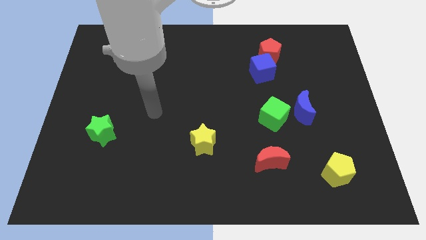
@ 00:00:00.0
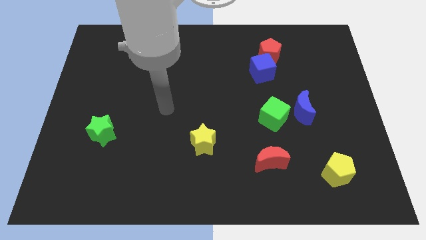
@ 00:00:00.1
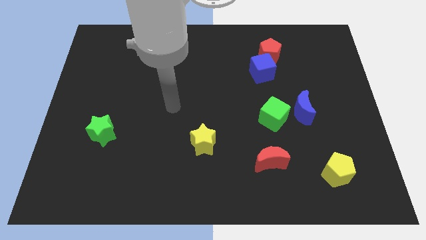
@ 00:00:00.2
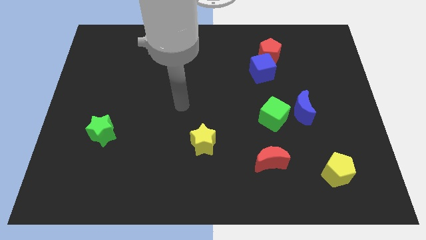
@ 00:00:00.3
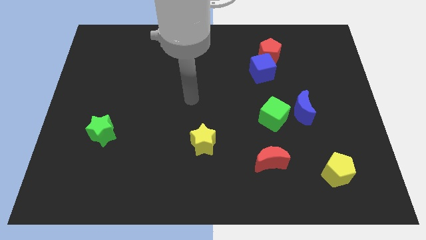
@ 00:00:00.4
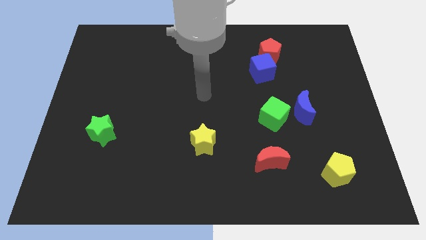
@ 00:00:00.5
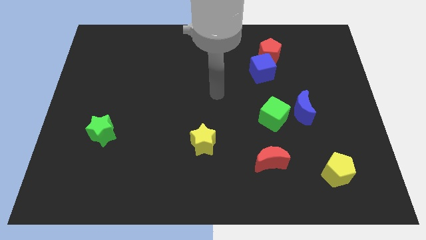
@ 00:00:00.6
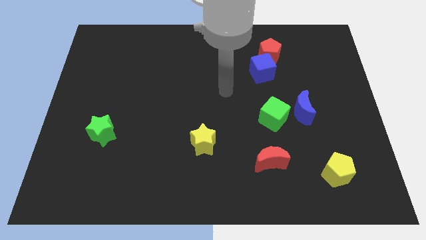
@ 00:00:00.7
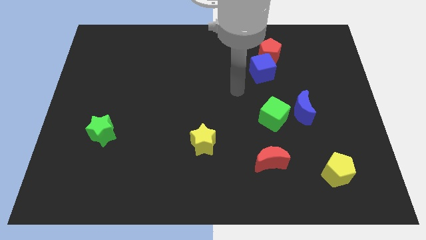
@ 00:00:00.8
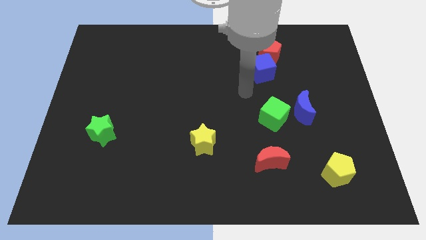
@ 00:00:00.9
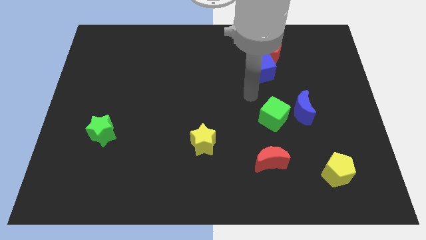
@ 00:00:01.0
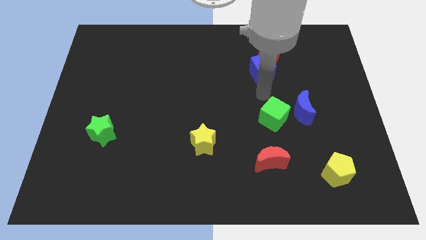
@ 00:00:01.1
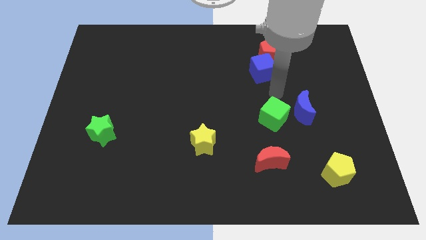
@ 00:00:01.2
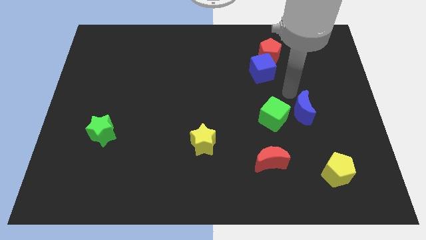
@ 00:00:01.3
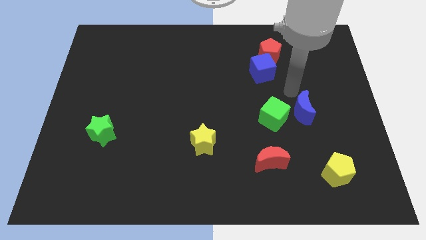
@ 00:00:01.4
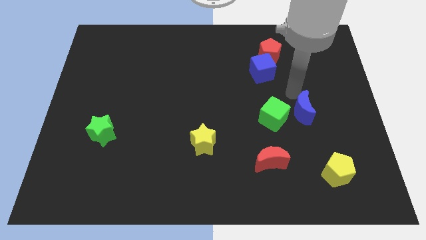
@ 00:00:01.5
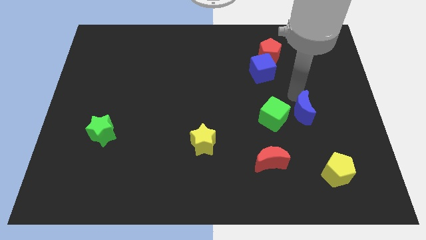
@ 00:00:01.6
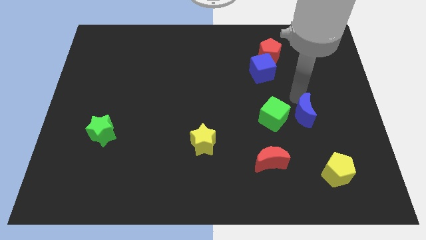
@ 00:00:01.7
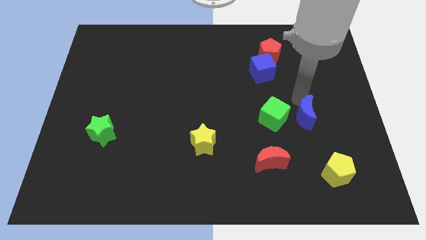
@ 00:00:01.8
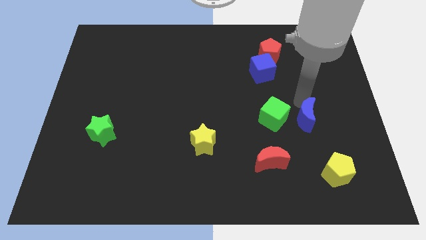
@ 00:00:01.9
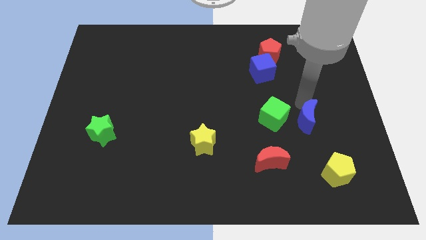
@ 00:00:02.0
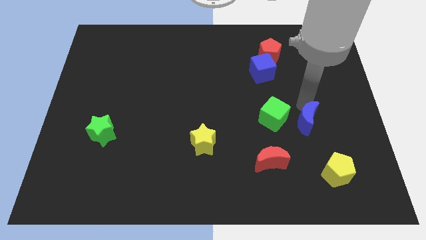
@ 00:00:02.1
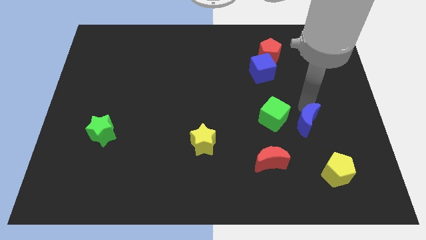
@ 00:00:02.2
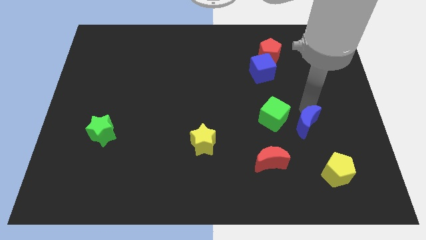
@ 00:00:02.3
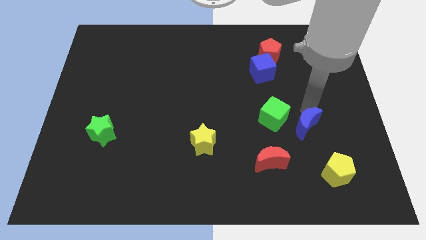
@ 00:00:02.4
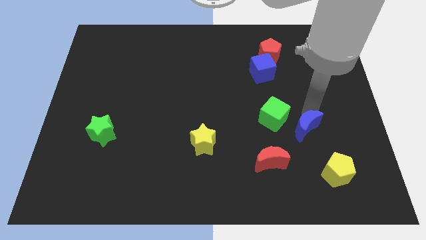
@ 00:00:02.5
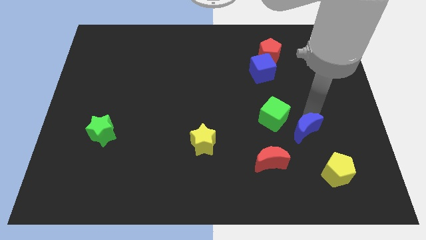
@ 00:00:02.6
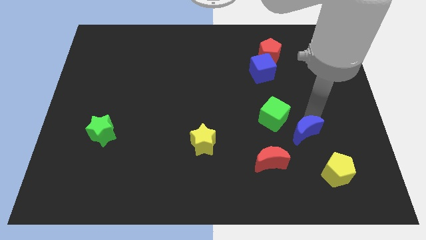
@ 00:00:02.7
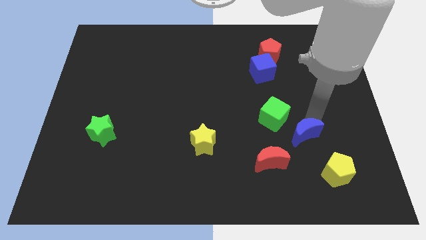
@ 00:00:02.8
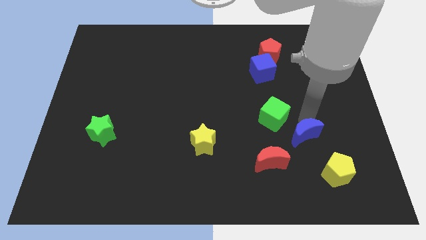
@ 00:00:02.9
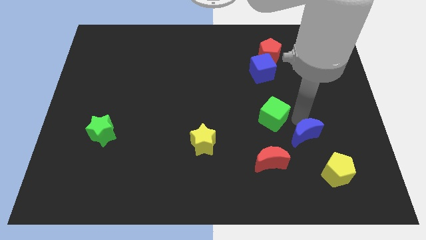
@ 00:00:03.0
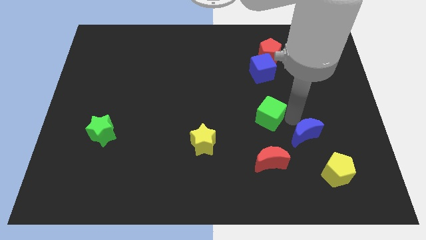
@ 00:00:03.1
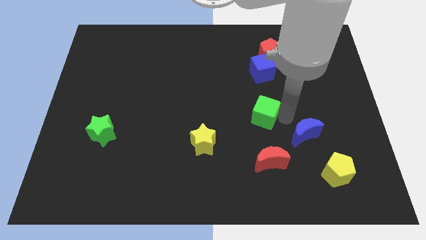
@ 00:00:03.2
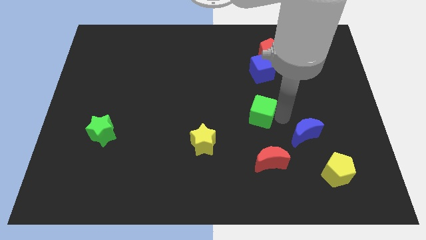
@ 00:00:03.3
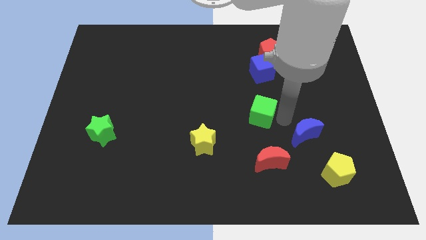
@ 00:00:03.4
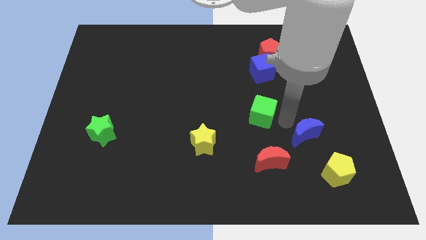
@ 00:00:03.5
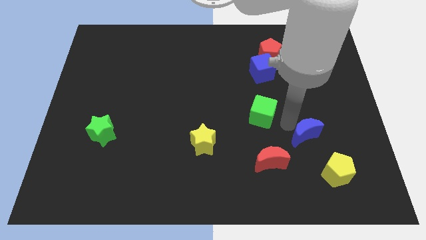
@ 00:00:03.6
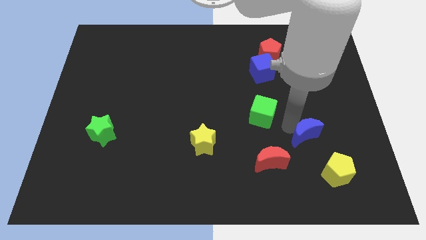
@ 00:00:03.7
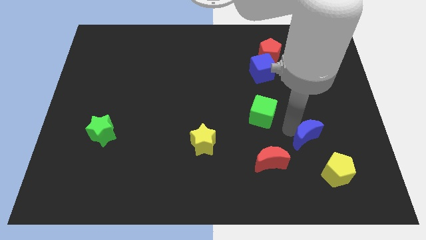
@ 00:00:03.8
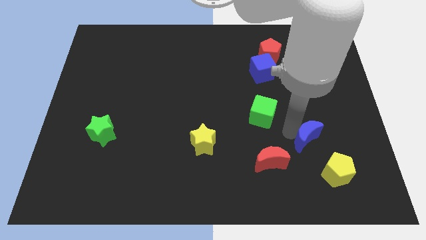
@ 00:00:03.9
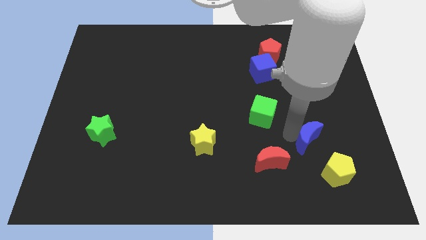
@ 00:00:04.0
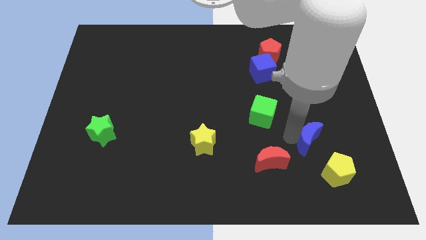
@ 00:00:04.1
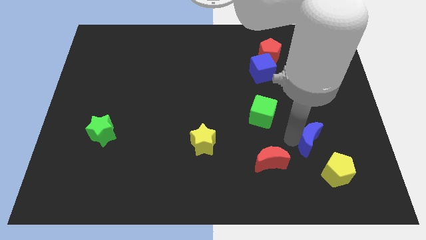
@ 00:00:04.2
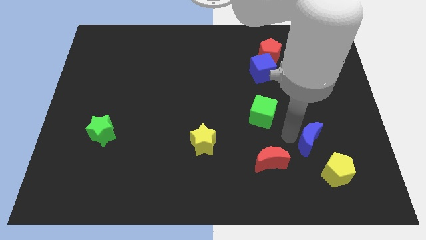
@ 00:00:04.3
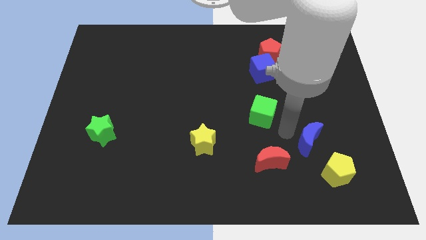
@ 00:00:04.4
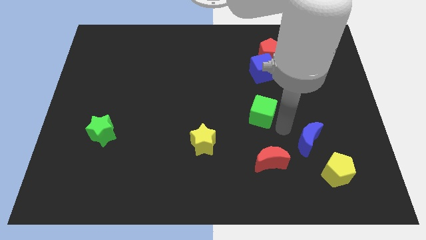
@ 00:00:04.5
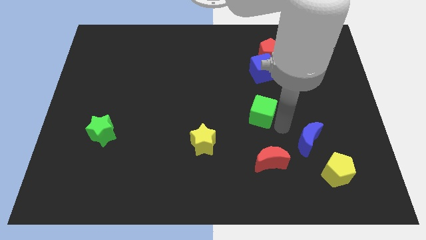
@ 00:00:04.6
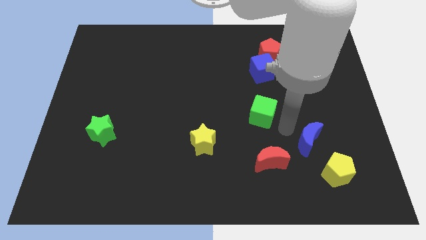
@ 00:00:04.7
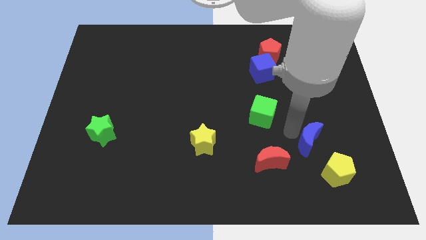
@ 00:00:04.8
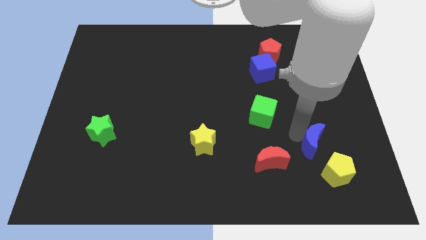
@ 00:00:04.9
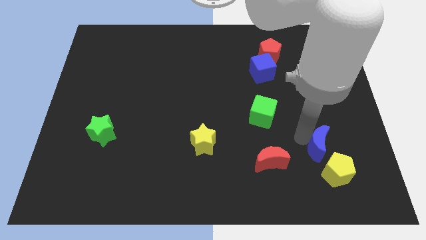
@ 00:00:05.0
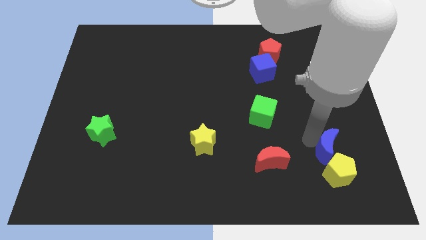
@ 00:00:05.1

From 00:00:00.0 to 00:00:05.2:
push the blue moon close to the yellow pentagon

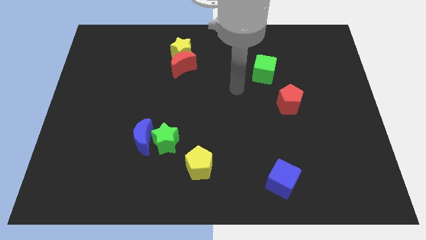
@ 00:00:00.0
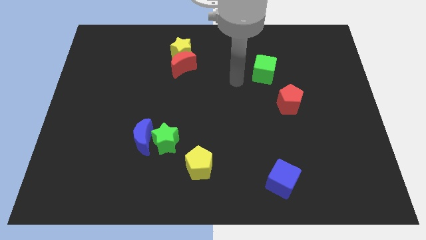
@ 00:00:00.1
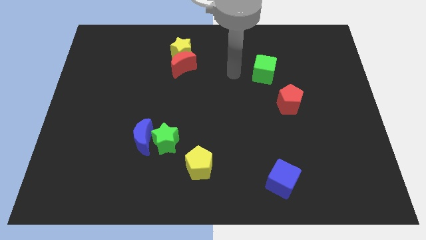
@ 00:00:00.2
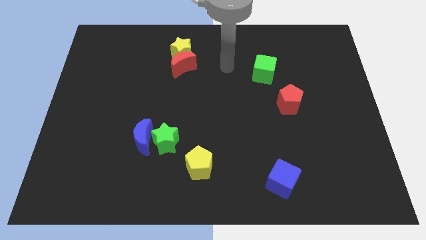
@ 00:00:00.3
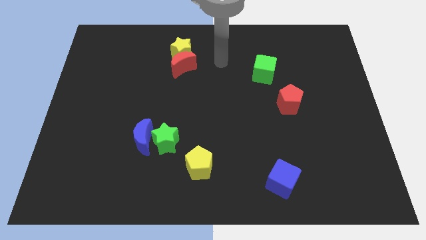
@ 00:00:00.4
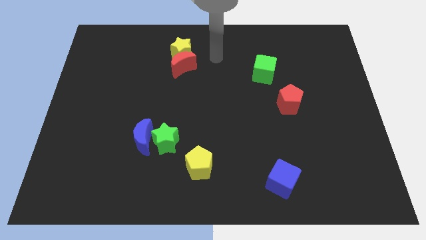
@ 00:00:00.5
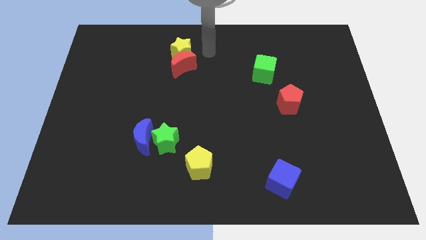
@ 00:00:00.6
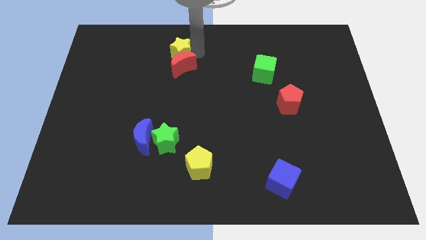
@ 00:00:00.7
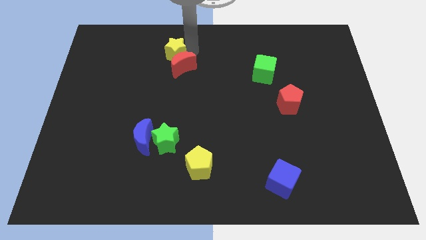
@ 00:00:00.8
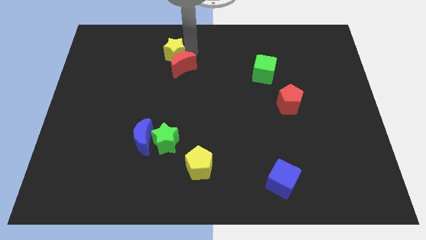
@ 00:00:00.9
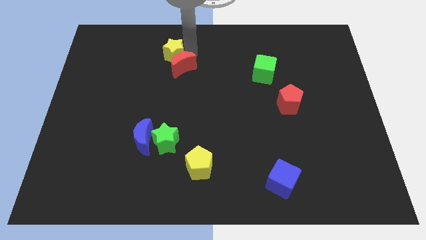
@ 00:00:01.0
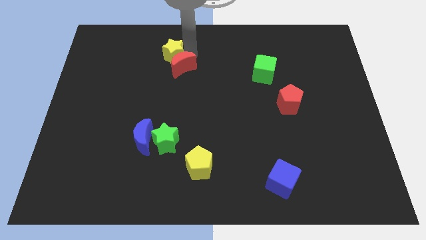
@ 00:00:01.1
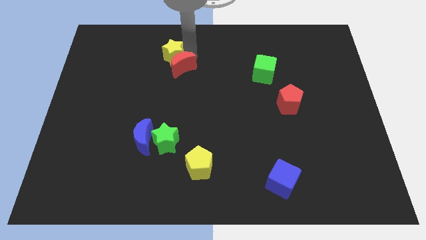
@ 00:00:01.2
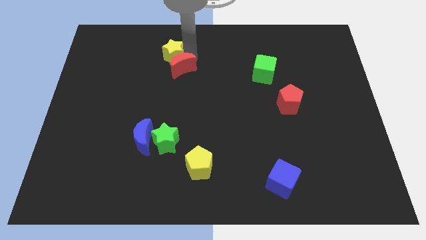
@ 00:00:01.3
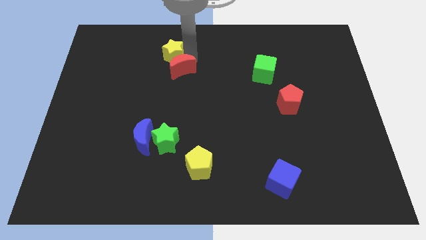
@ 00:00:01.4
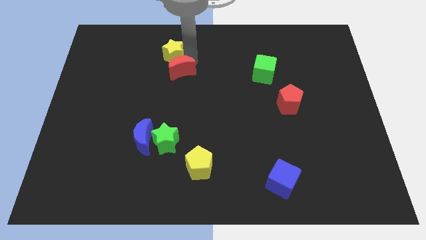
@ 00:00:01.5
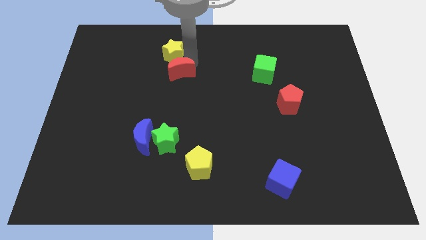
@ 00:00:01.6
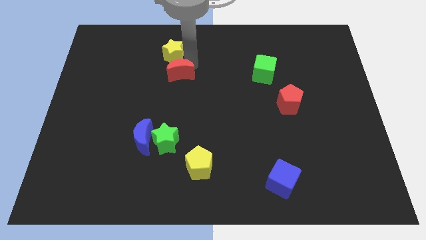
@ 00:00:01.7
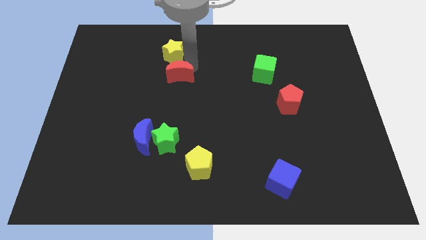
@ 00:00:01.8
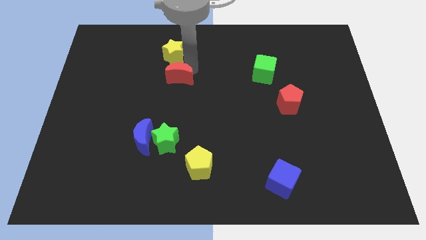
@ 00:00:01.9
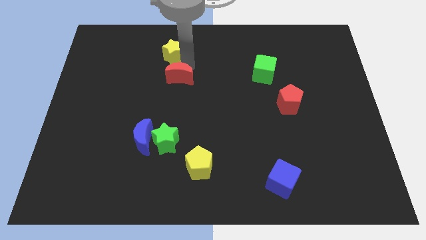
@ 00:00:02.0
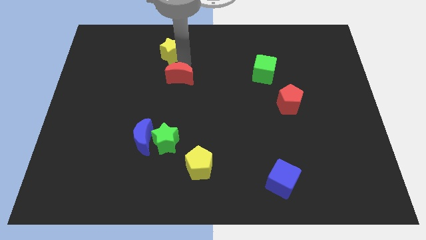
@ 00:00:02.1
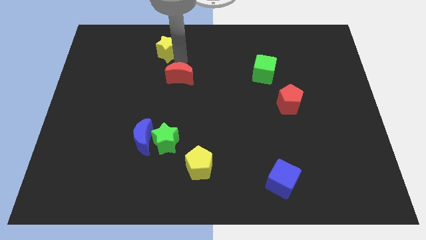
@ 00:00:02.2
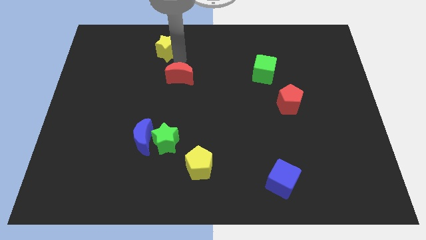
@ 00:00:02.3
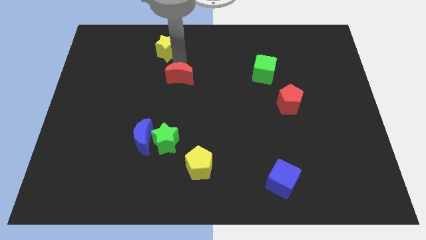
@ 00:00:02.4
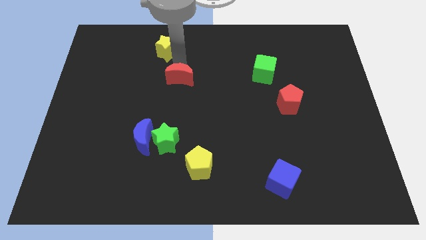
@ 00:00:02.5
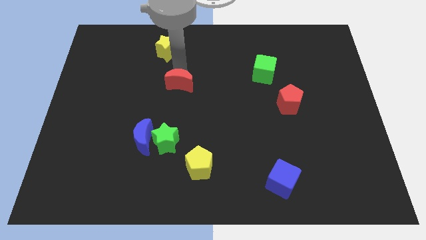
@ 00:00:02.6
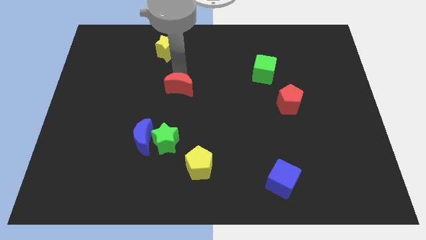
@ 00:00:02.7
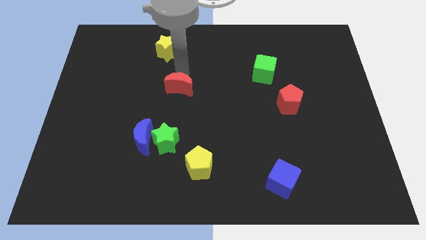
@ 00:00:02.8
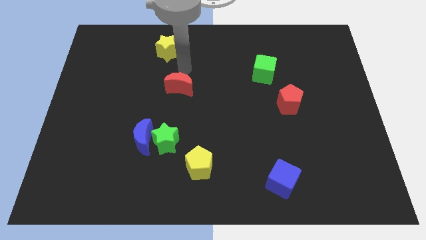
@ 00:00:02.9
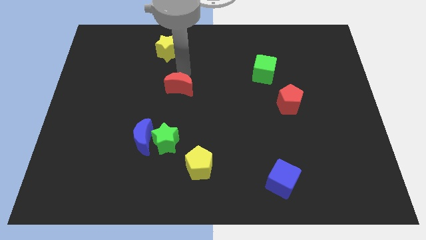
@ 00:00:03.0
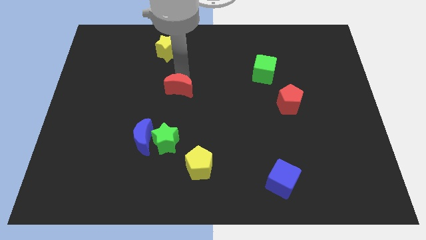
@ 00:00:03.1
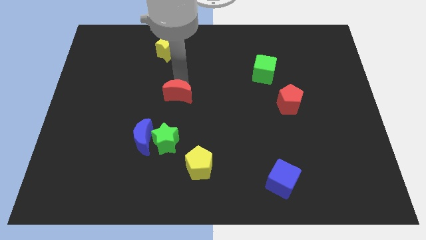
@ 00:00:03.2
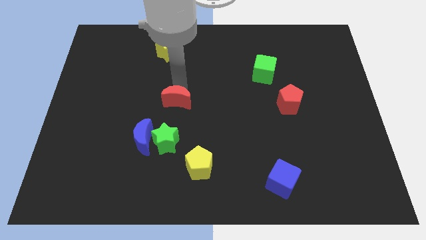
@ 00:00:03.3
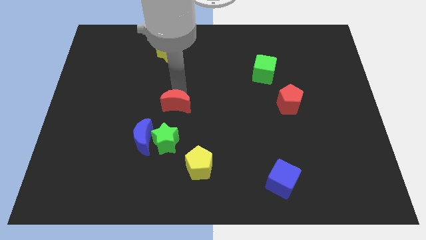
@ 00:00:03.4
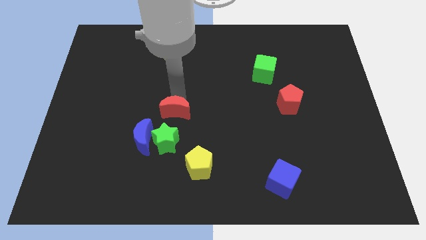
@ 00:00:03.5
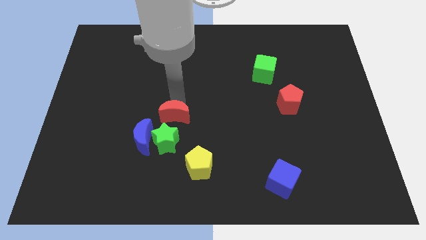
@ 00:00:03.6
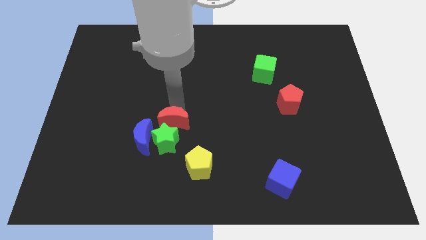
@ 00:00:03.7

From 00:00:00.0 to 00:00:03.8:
slide the red moon to the green star
